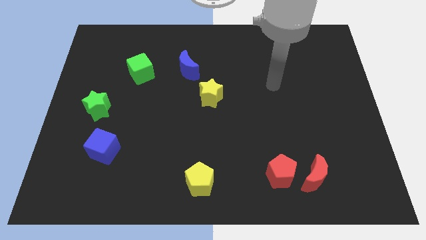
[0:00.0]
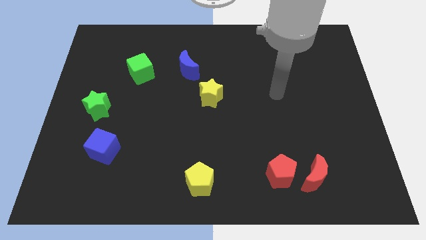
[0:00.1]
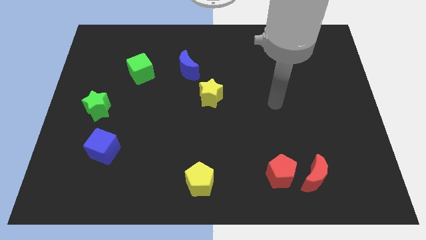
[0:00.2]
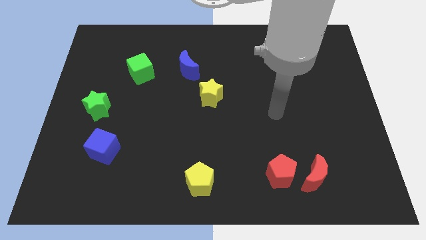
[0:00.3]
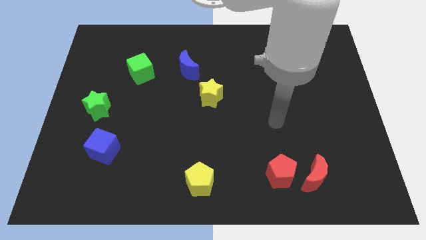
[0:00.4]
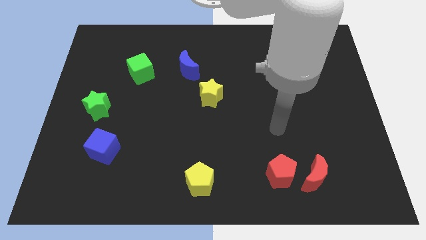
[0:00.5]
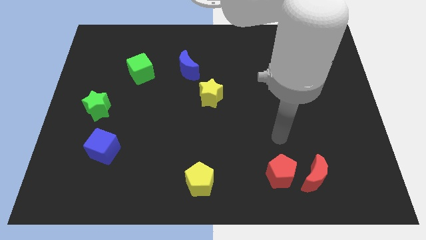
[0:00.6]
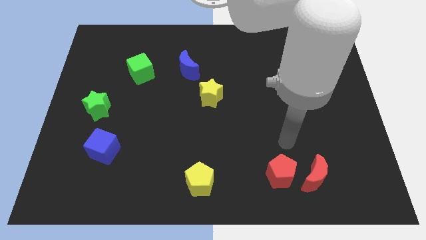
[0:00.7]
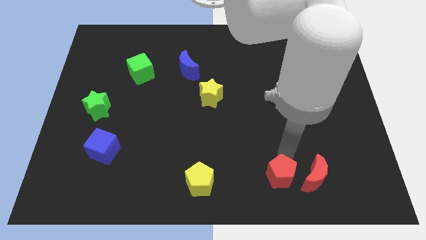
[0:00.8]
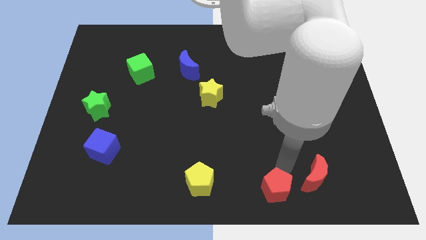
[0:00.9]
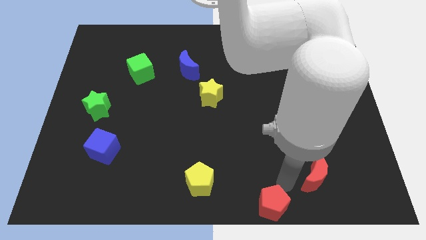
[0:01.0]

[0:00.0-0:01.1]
move the red moon away from the red pentagon

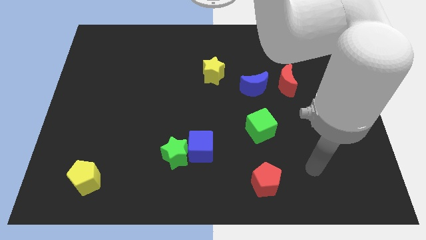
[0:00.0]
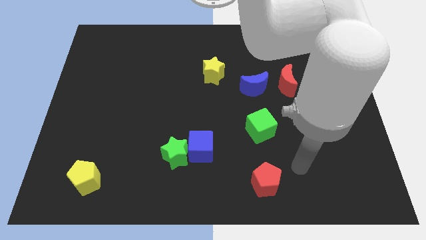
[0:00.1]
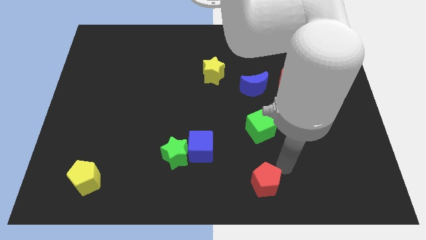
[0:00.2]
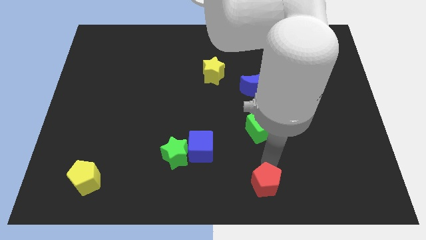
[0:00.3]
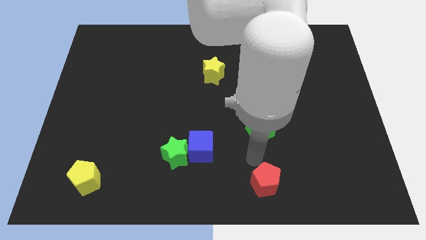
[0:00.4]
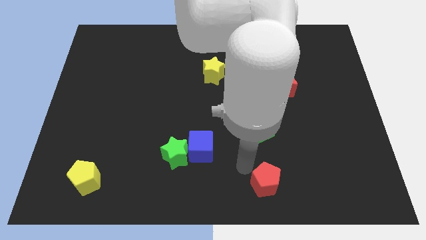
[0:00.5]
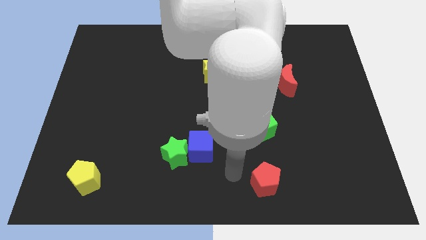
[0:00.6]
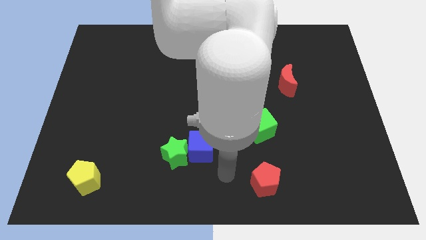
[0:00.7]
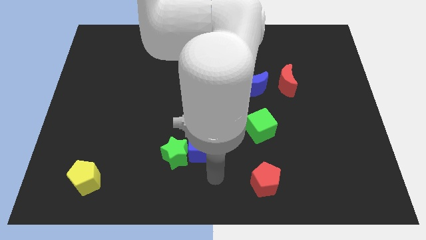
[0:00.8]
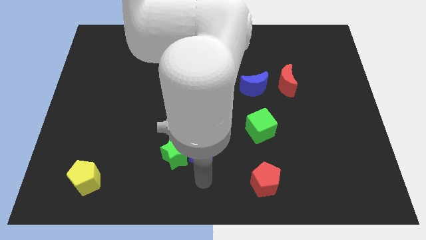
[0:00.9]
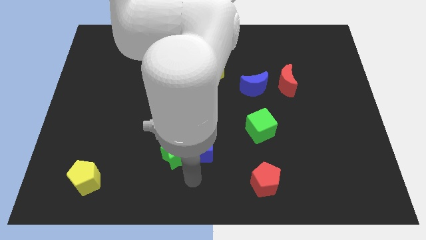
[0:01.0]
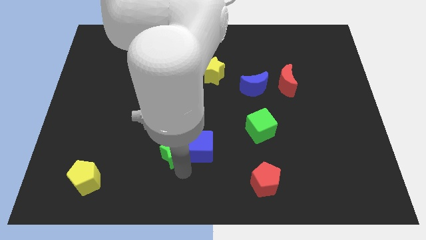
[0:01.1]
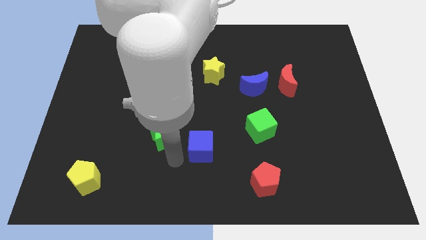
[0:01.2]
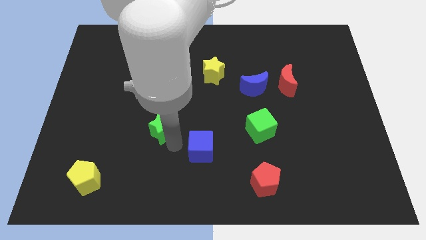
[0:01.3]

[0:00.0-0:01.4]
separate the blue cube from the green star

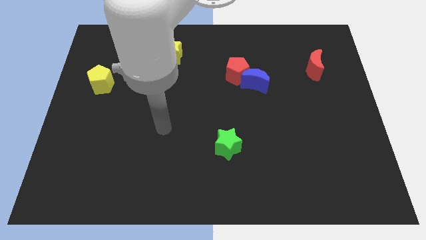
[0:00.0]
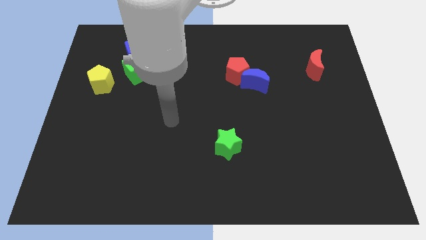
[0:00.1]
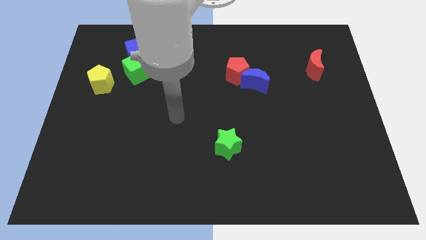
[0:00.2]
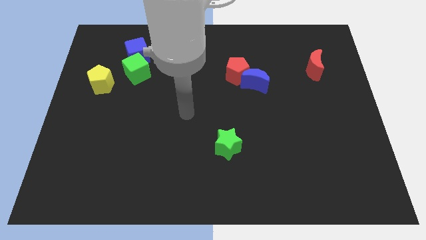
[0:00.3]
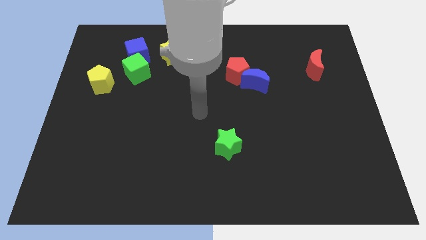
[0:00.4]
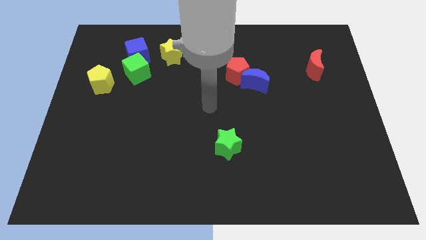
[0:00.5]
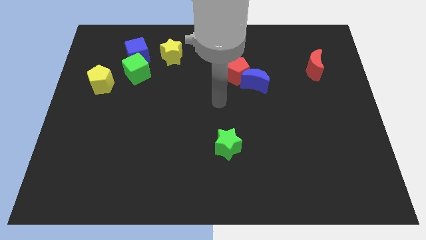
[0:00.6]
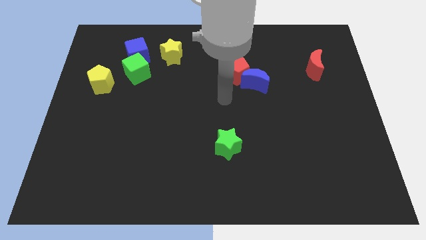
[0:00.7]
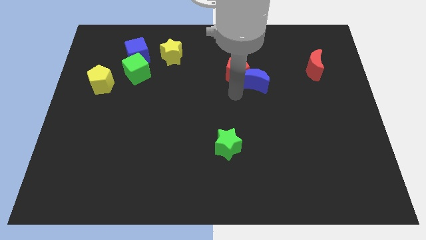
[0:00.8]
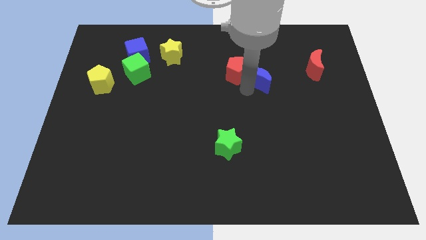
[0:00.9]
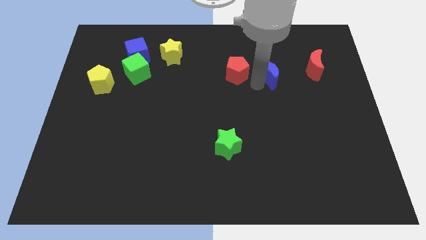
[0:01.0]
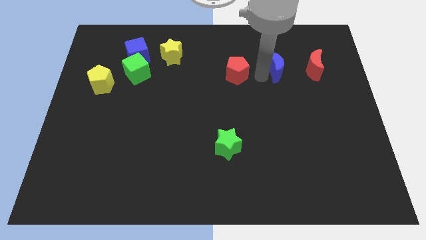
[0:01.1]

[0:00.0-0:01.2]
pull the red pentagon apart from the blue moon

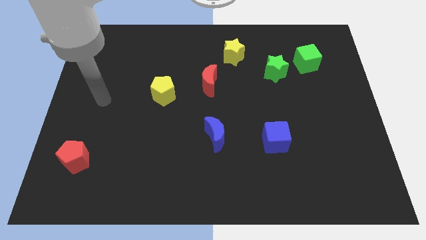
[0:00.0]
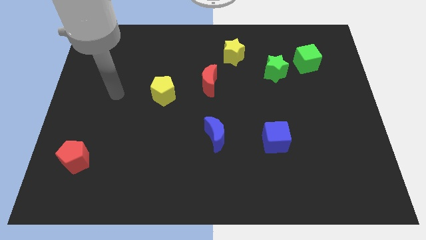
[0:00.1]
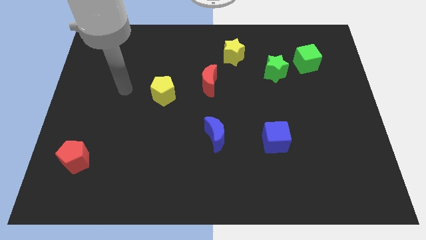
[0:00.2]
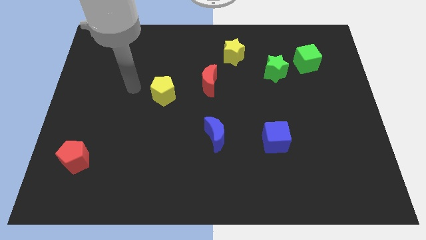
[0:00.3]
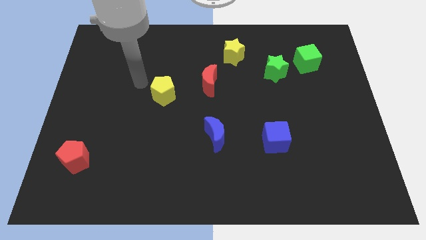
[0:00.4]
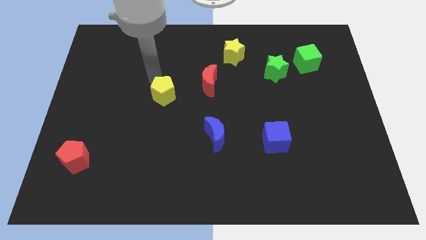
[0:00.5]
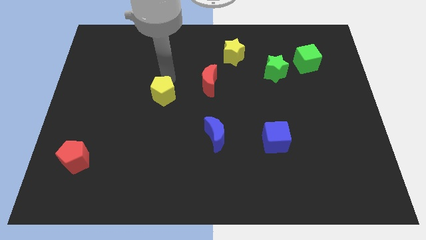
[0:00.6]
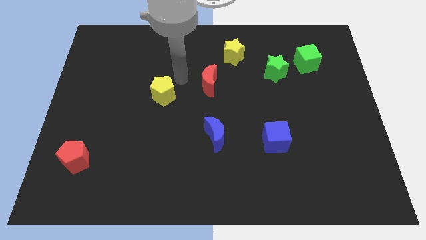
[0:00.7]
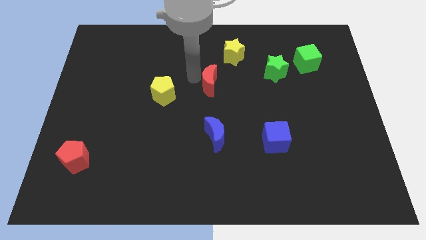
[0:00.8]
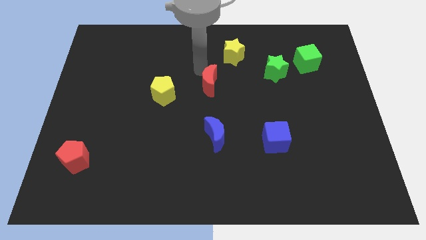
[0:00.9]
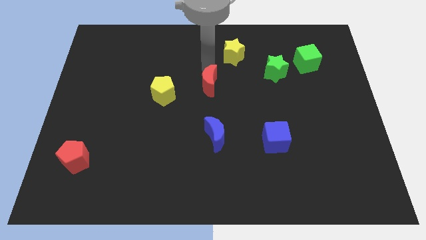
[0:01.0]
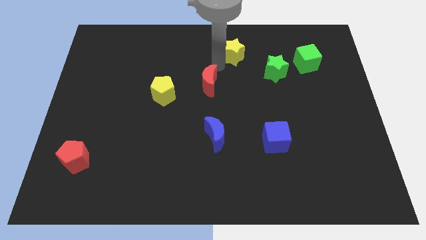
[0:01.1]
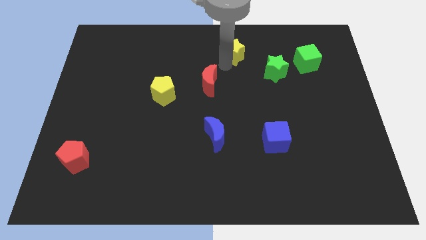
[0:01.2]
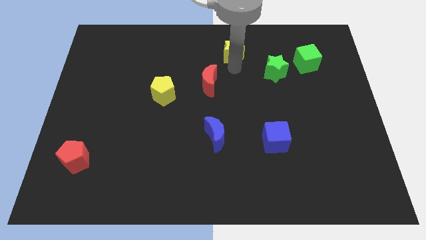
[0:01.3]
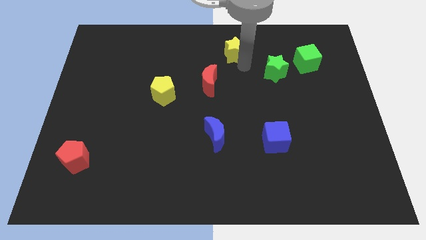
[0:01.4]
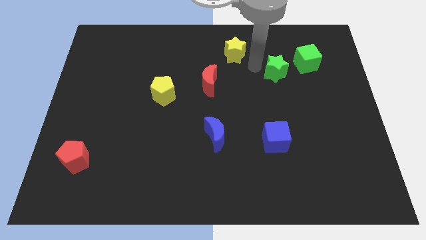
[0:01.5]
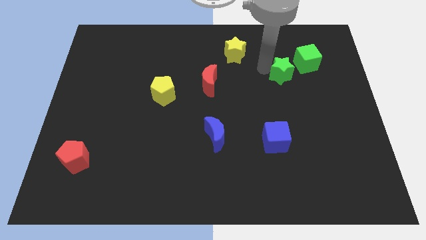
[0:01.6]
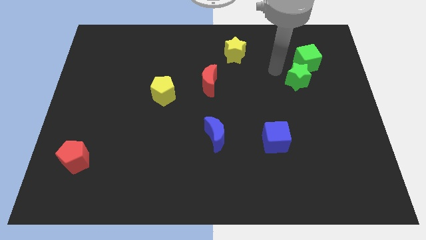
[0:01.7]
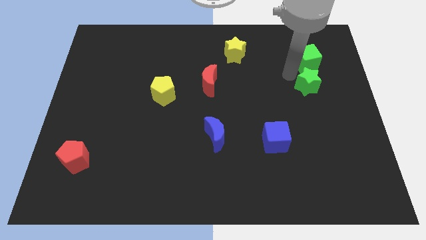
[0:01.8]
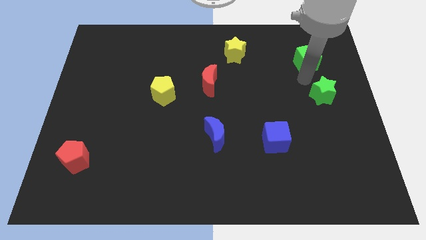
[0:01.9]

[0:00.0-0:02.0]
separate the green cube from the green star

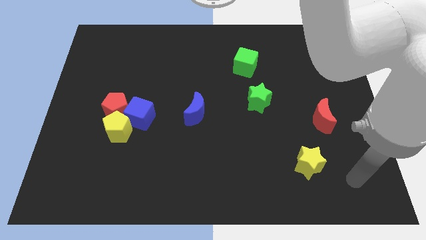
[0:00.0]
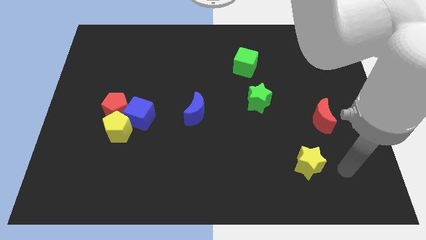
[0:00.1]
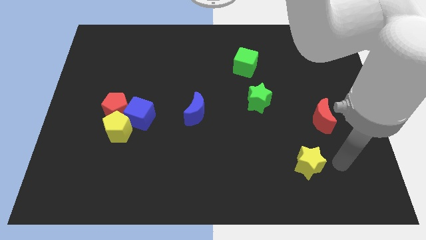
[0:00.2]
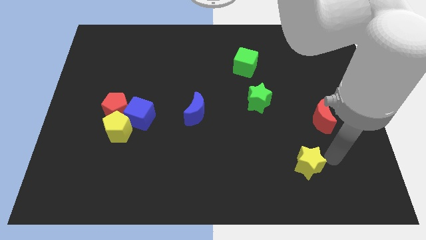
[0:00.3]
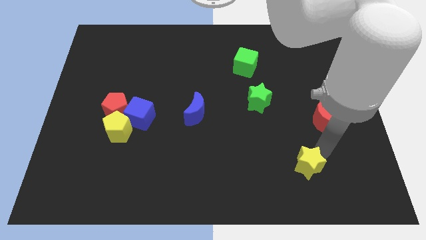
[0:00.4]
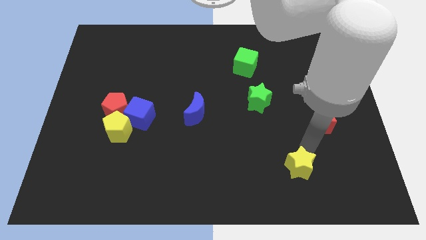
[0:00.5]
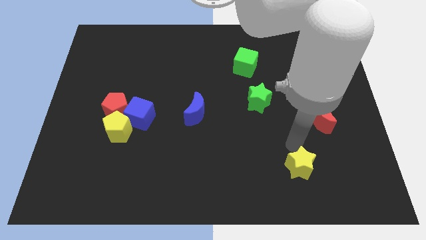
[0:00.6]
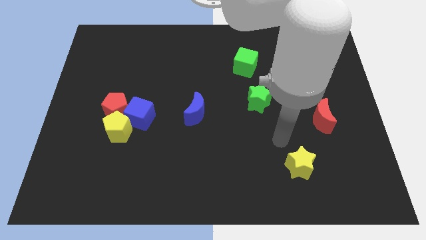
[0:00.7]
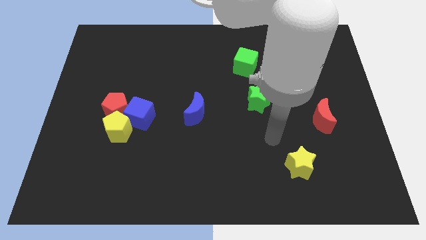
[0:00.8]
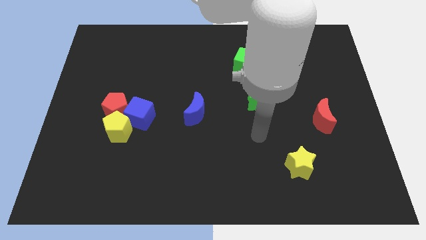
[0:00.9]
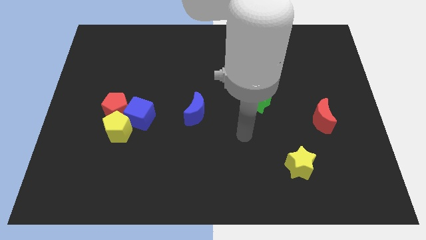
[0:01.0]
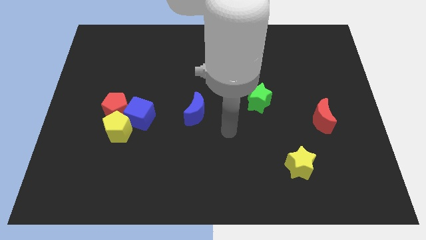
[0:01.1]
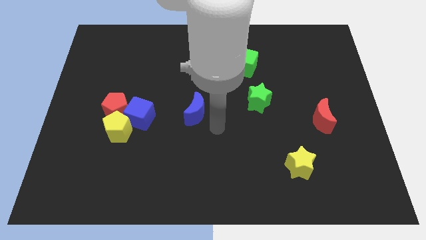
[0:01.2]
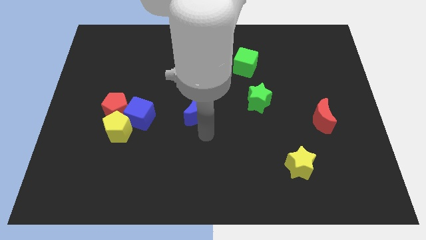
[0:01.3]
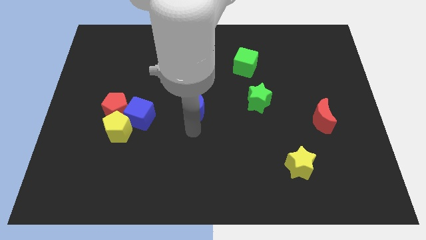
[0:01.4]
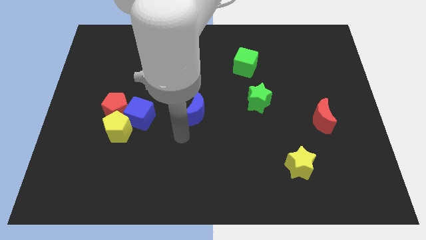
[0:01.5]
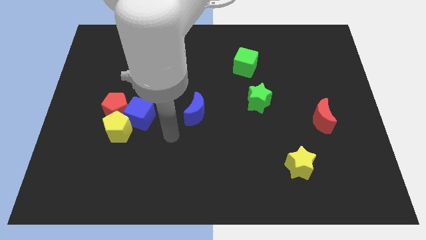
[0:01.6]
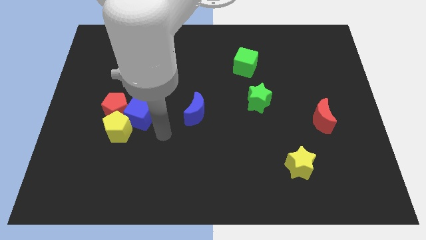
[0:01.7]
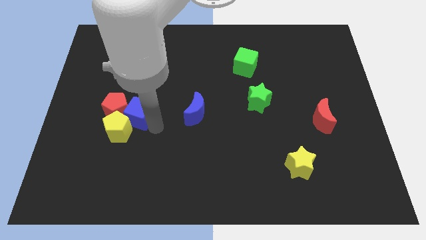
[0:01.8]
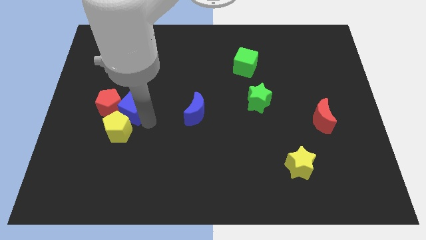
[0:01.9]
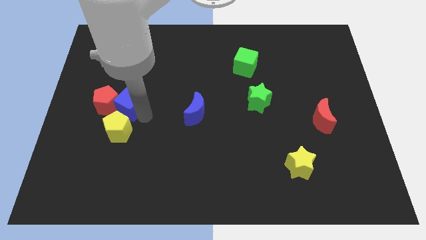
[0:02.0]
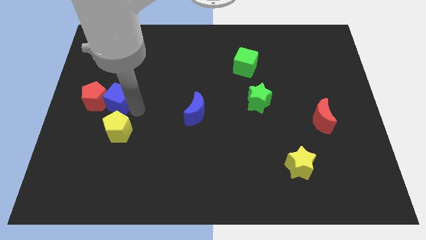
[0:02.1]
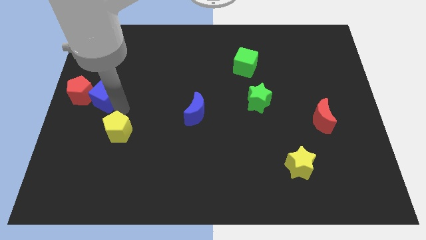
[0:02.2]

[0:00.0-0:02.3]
move the yellow pentagon away from the blue cube and red pentagon

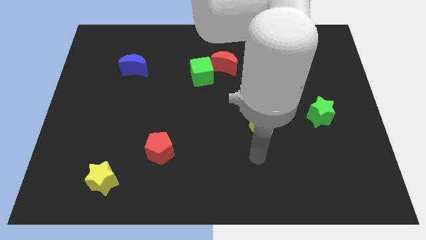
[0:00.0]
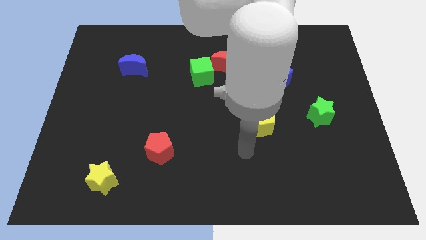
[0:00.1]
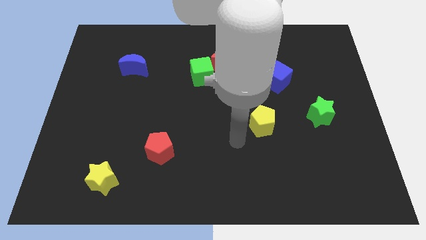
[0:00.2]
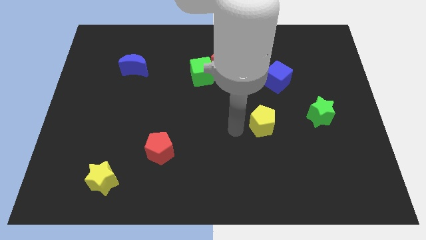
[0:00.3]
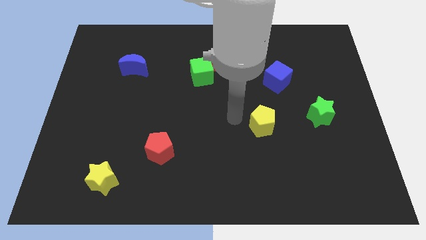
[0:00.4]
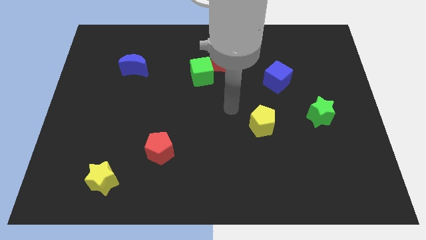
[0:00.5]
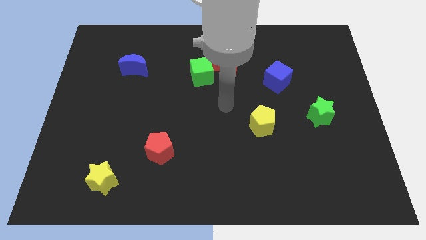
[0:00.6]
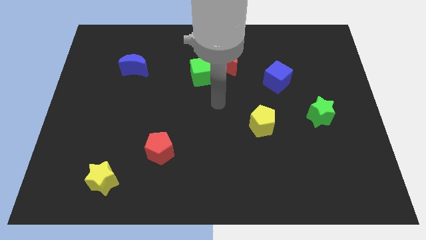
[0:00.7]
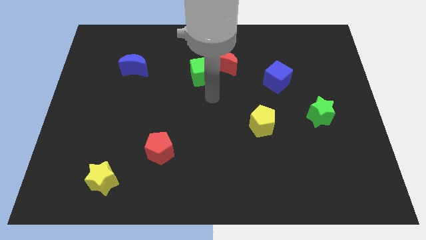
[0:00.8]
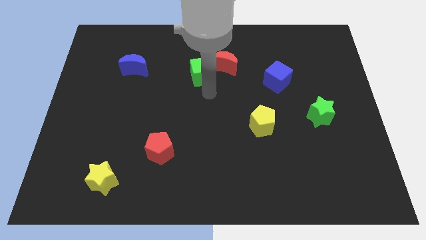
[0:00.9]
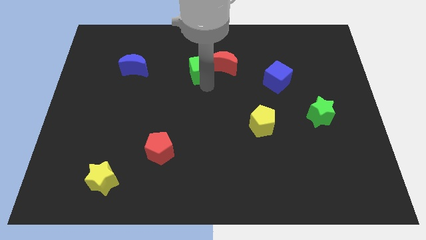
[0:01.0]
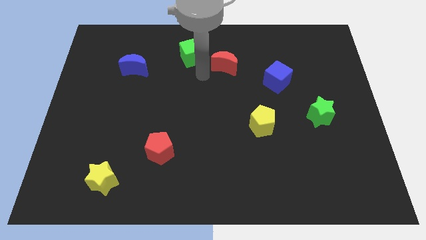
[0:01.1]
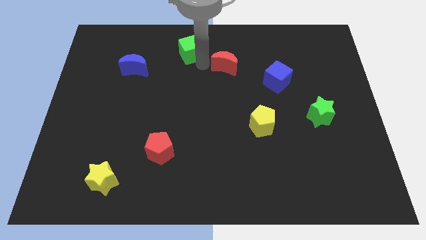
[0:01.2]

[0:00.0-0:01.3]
separate the red moon from the green cube
